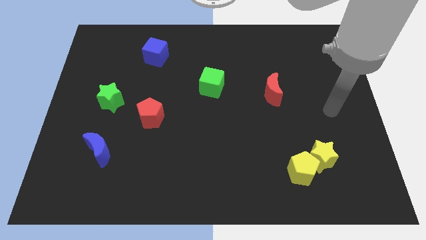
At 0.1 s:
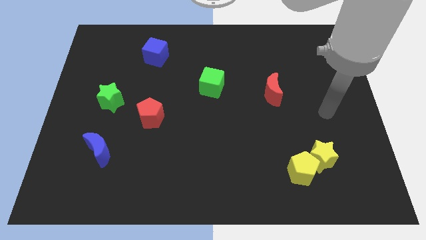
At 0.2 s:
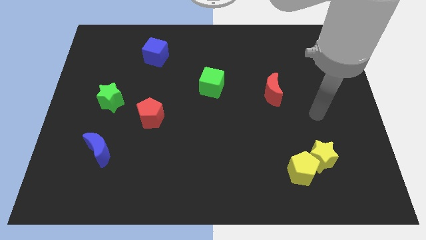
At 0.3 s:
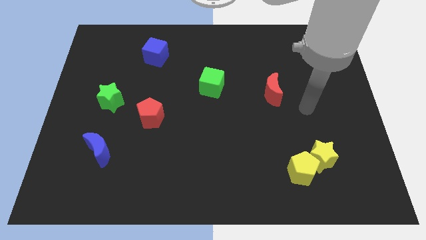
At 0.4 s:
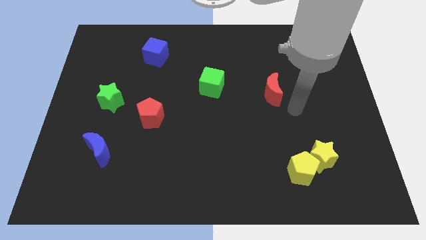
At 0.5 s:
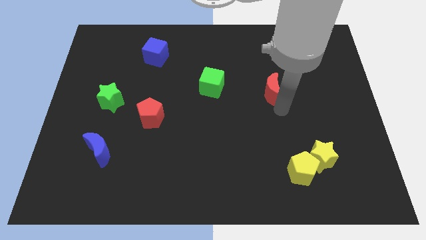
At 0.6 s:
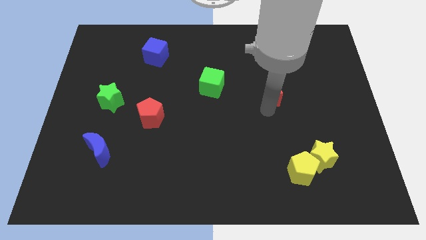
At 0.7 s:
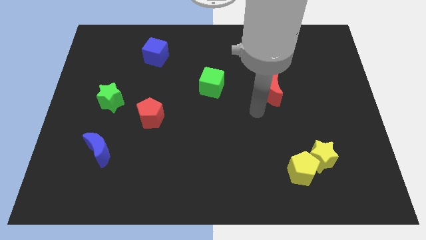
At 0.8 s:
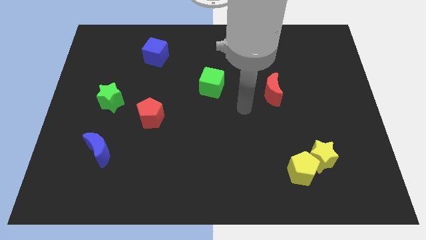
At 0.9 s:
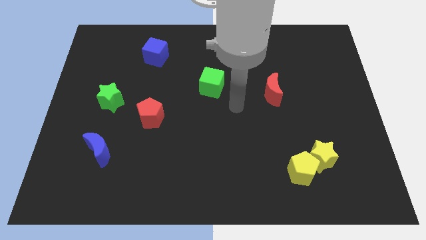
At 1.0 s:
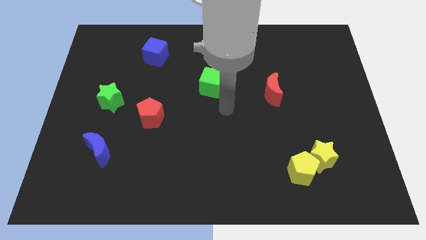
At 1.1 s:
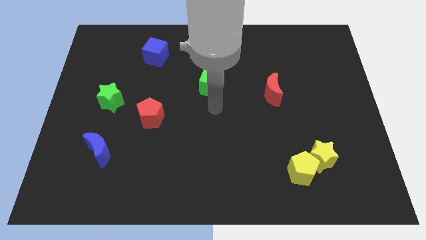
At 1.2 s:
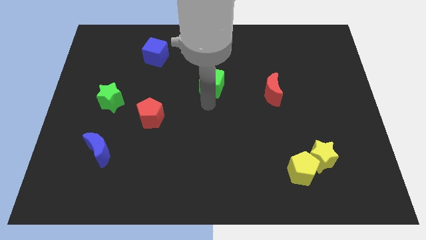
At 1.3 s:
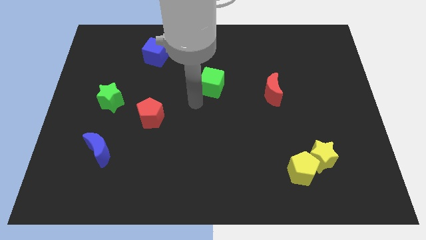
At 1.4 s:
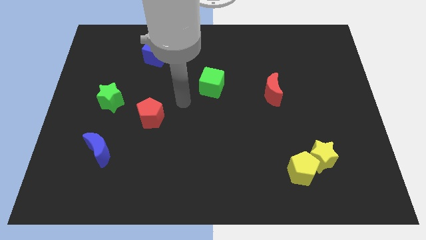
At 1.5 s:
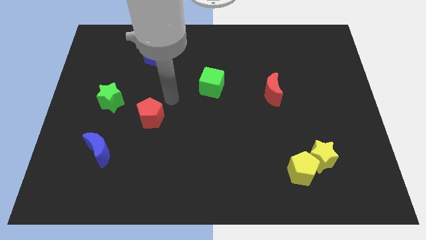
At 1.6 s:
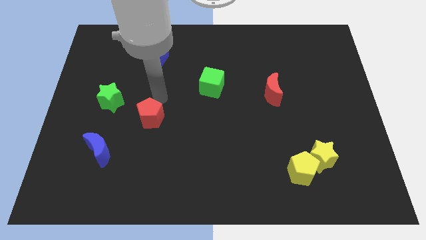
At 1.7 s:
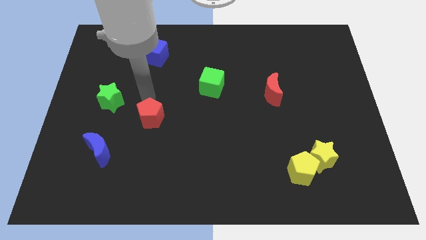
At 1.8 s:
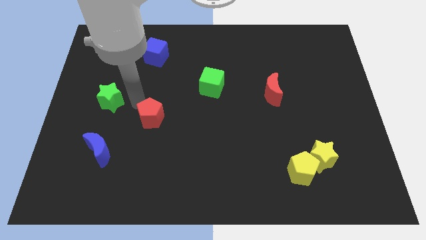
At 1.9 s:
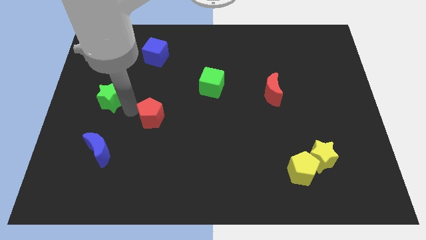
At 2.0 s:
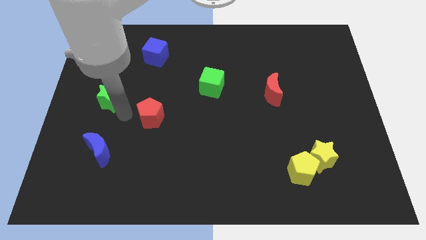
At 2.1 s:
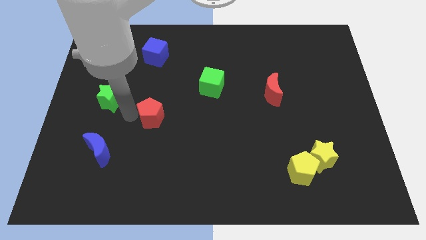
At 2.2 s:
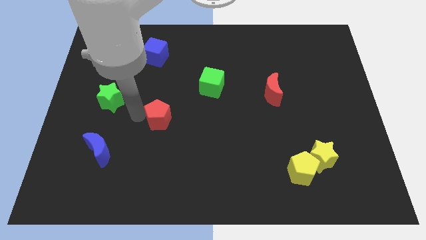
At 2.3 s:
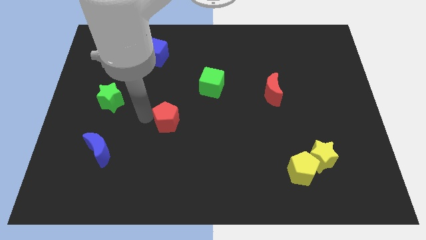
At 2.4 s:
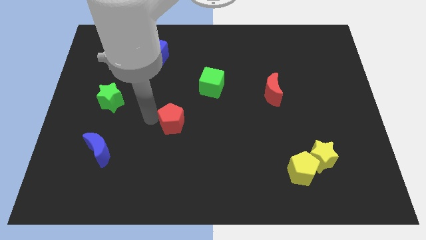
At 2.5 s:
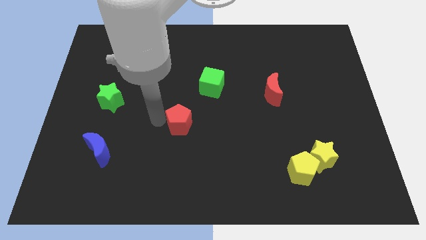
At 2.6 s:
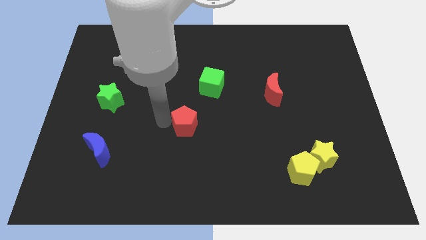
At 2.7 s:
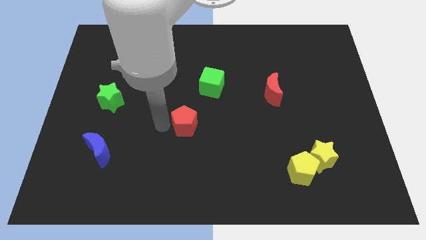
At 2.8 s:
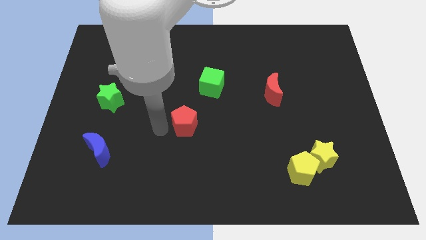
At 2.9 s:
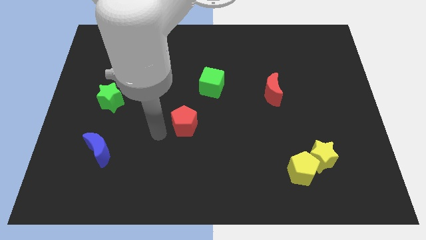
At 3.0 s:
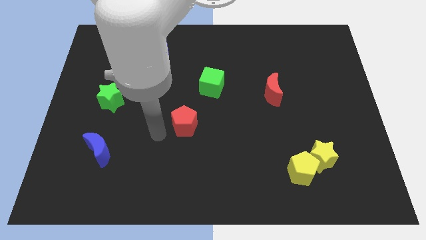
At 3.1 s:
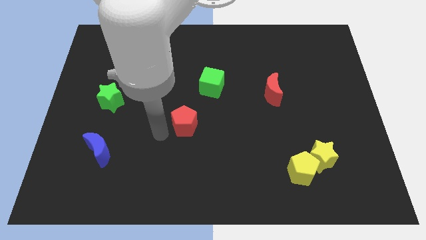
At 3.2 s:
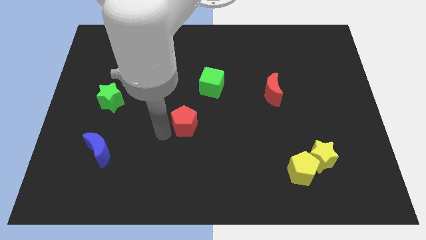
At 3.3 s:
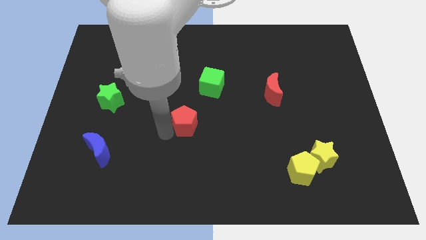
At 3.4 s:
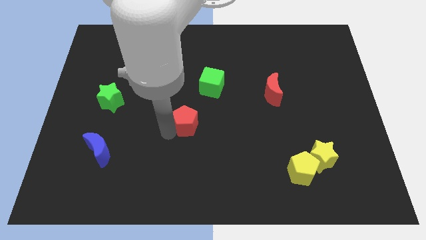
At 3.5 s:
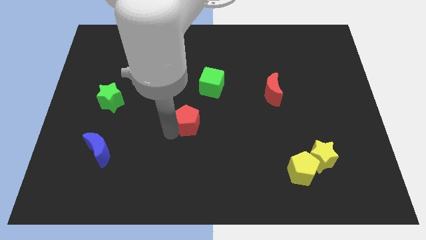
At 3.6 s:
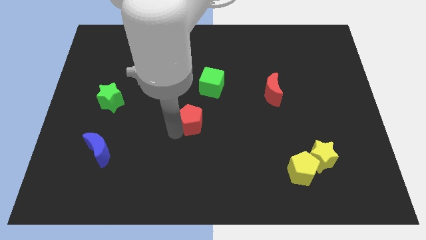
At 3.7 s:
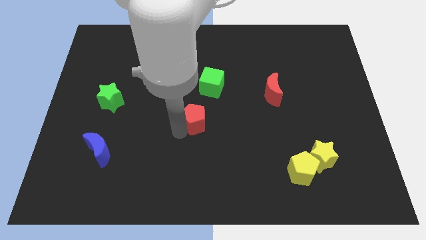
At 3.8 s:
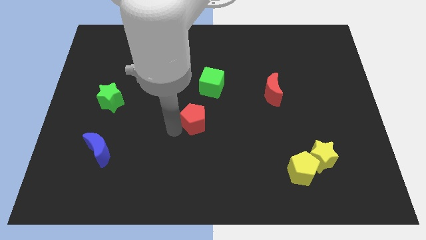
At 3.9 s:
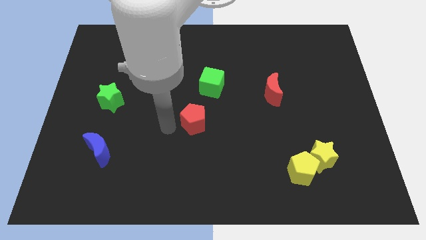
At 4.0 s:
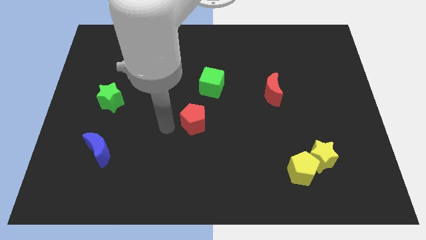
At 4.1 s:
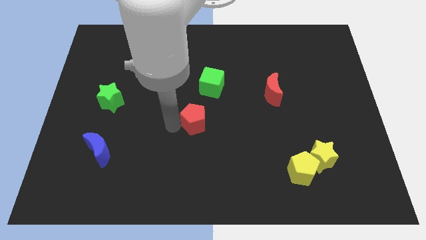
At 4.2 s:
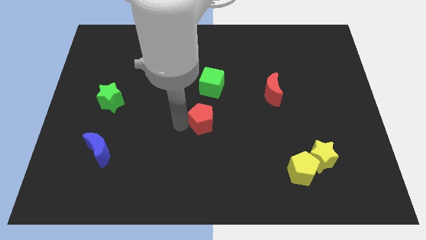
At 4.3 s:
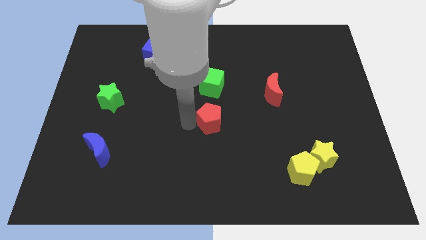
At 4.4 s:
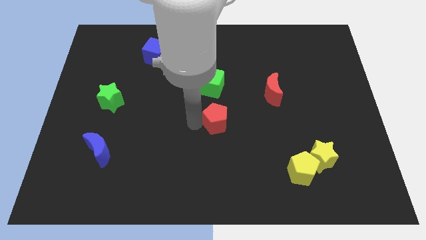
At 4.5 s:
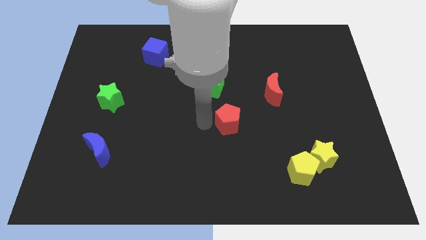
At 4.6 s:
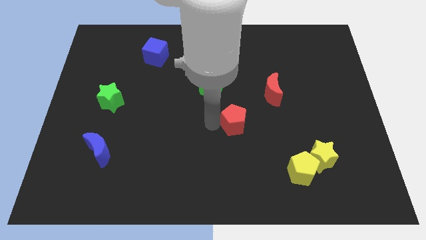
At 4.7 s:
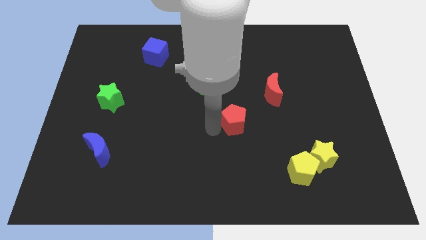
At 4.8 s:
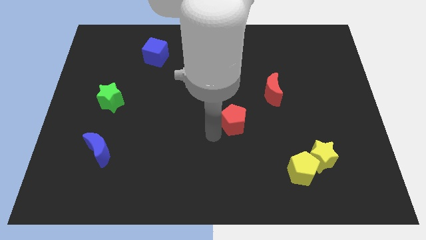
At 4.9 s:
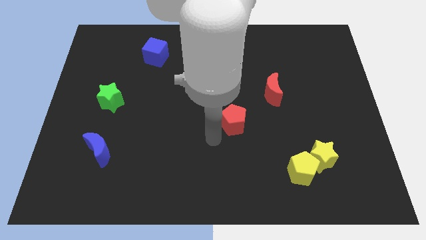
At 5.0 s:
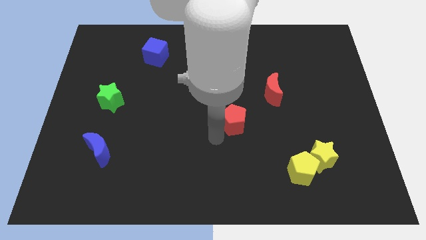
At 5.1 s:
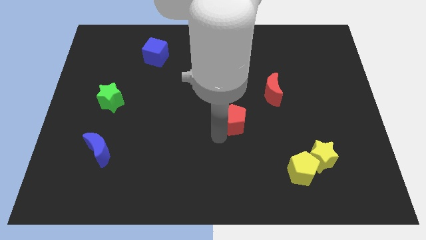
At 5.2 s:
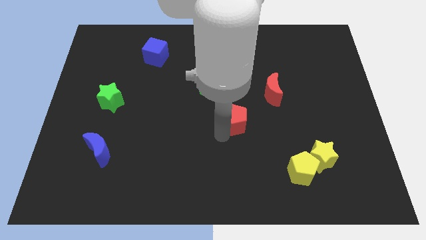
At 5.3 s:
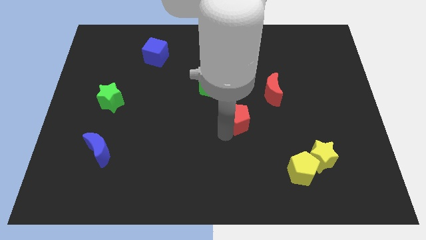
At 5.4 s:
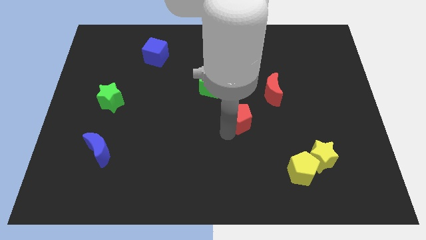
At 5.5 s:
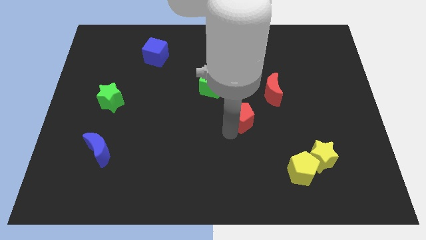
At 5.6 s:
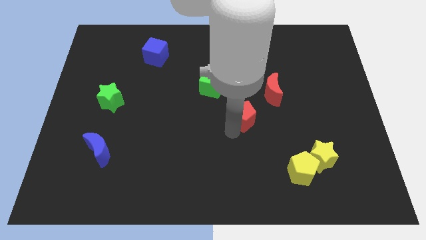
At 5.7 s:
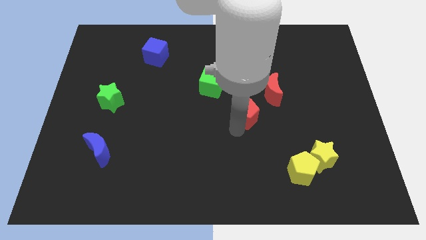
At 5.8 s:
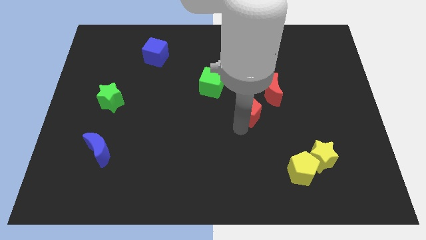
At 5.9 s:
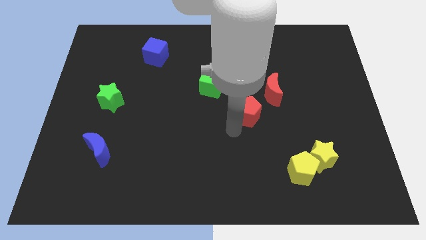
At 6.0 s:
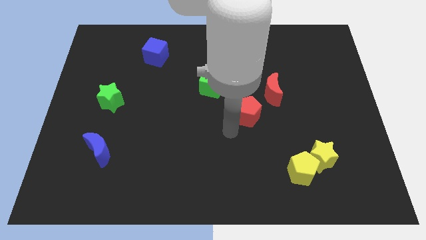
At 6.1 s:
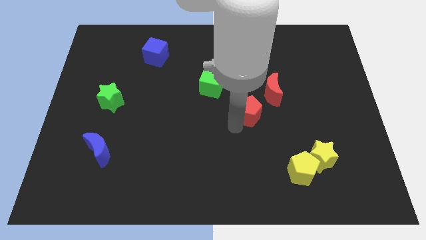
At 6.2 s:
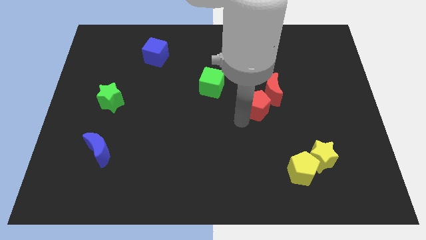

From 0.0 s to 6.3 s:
push the red pentagon close to the red moon
